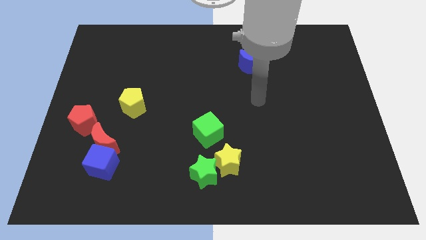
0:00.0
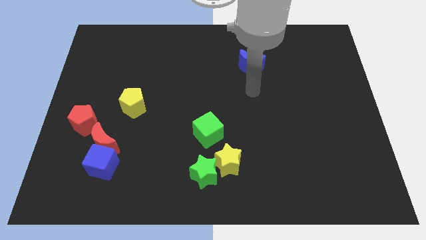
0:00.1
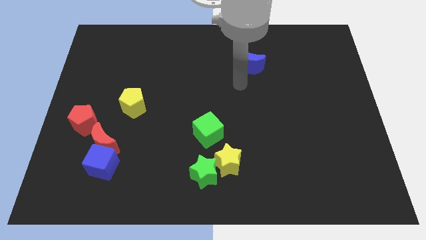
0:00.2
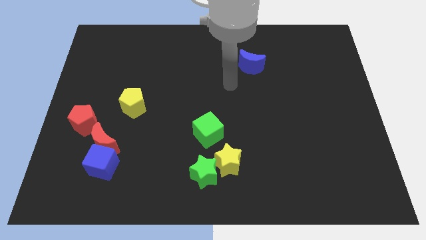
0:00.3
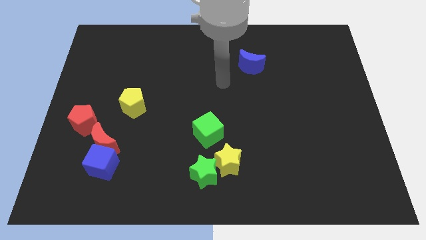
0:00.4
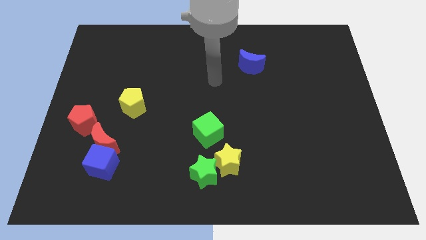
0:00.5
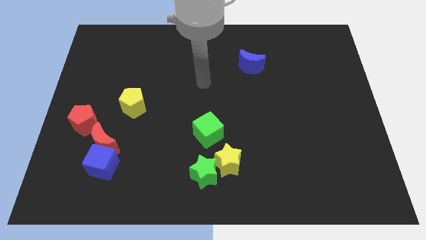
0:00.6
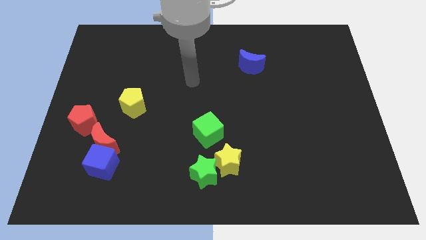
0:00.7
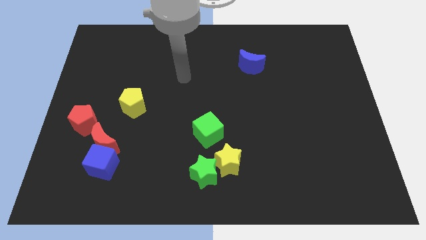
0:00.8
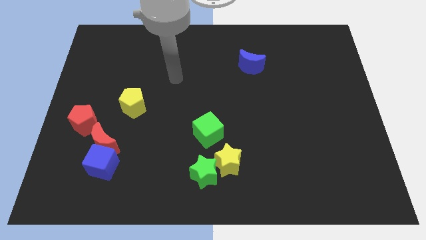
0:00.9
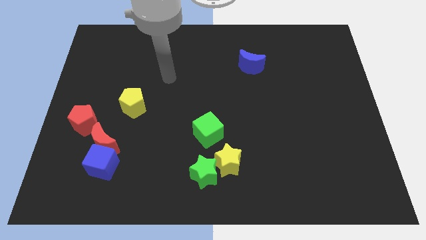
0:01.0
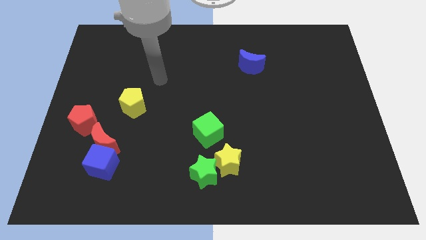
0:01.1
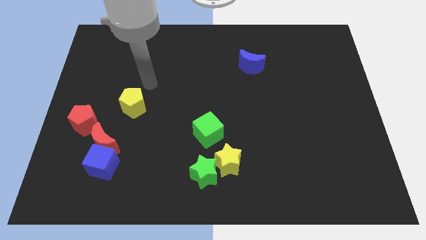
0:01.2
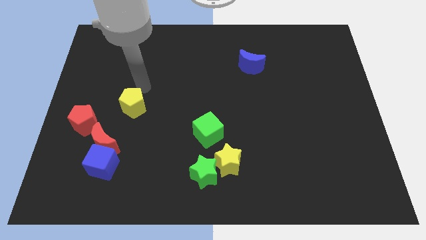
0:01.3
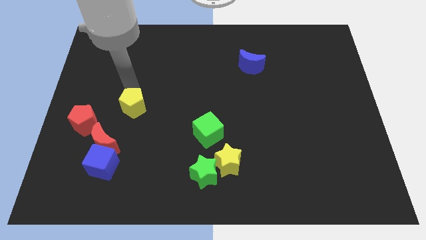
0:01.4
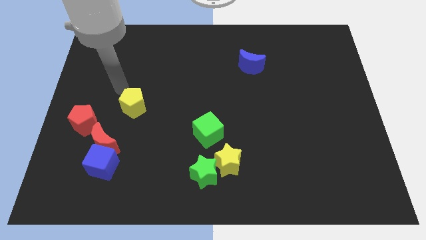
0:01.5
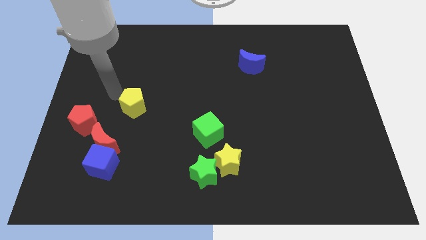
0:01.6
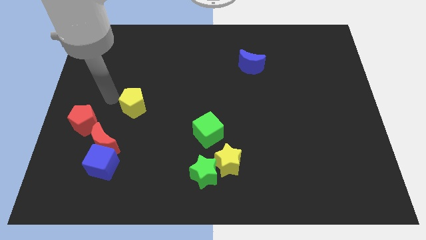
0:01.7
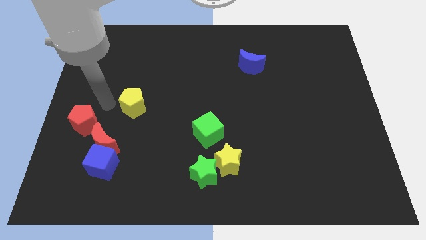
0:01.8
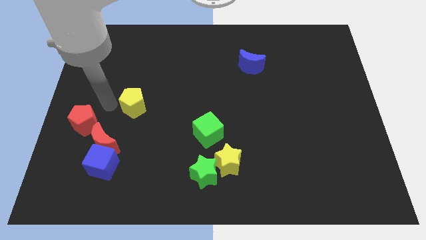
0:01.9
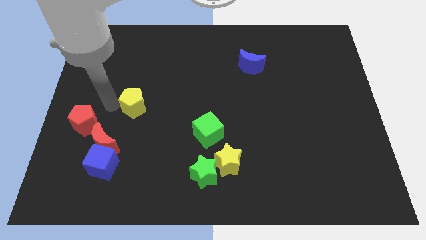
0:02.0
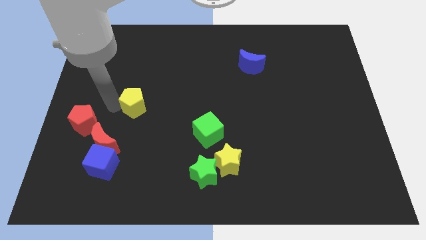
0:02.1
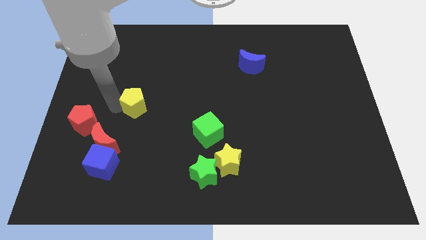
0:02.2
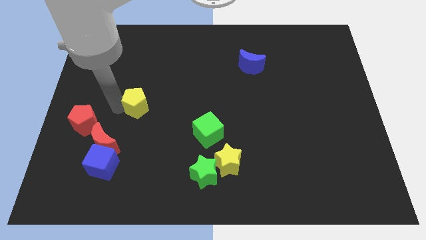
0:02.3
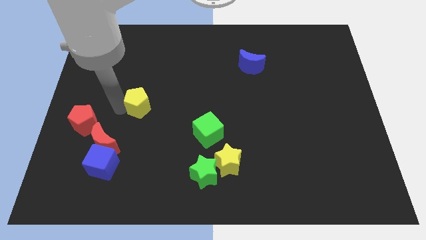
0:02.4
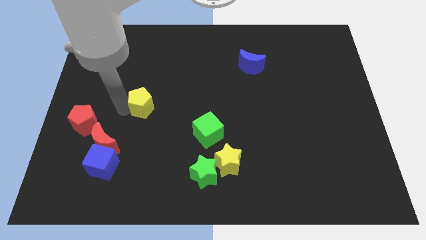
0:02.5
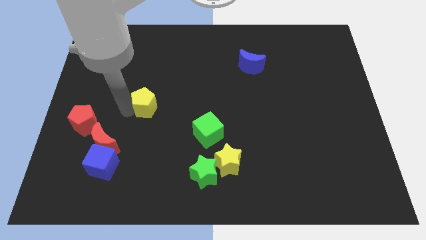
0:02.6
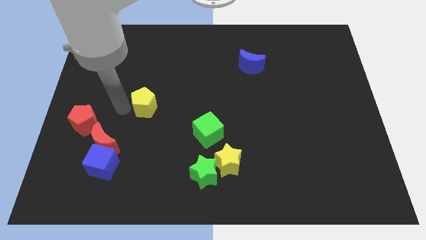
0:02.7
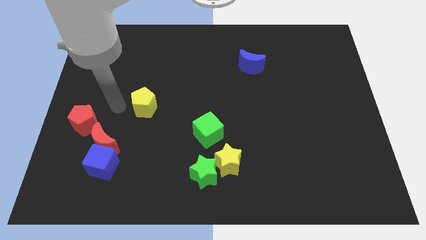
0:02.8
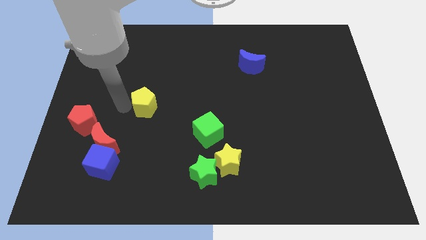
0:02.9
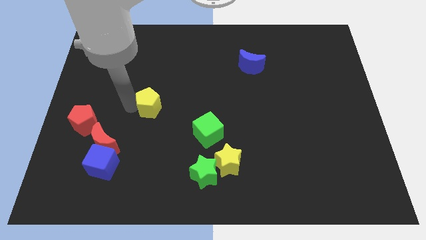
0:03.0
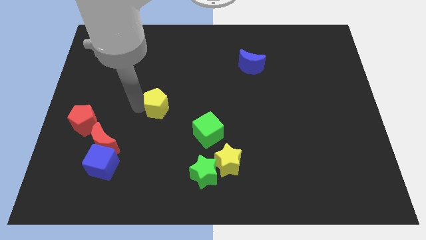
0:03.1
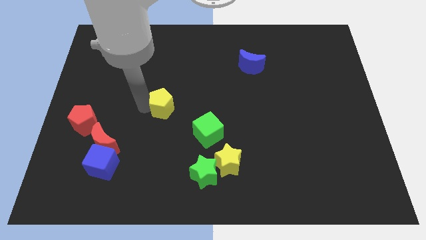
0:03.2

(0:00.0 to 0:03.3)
slide the yellow pentagon somewhat right

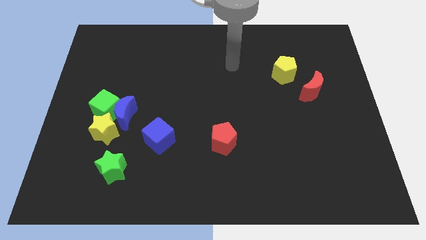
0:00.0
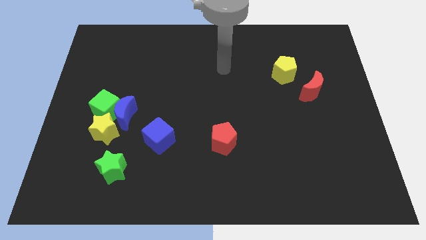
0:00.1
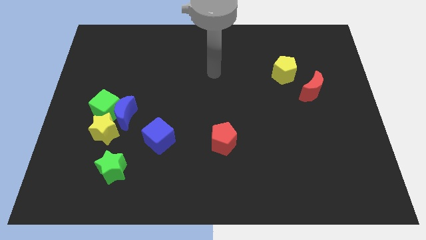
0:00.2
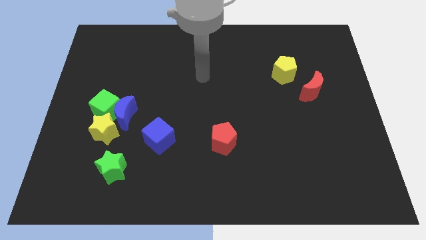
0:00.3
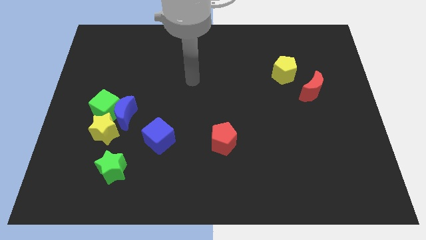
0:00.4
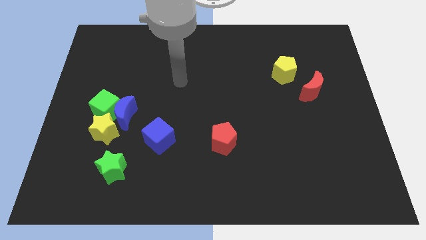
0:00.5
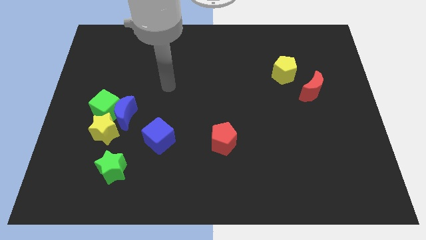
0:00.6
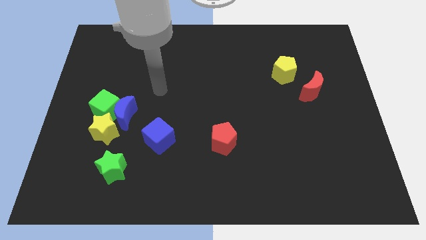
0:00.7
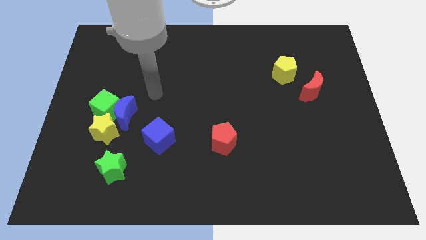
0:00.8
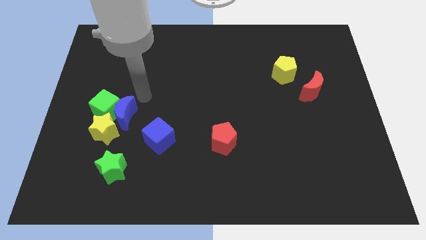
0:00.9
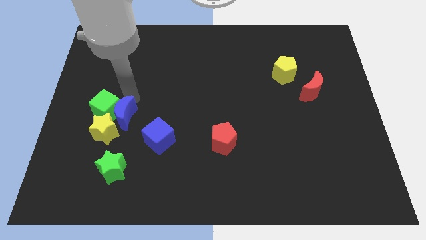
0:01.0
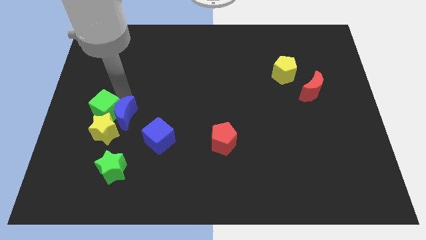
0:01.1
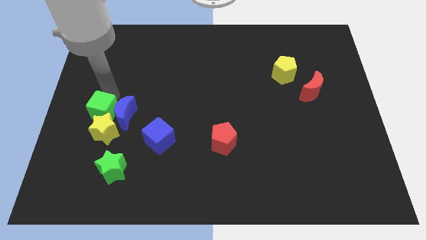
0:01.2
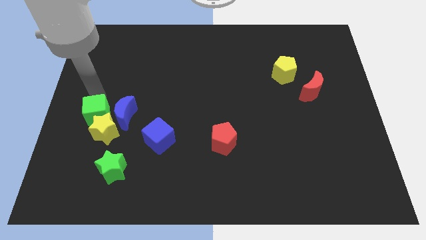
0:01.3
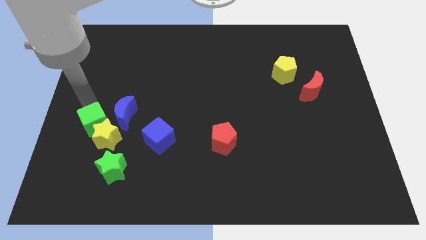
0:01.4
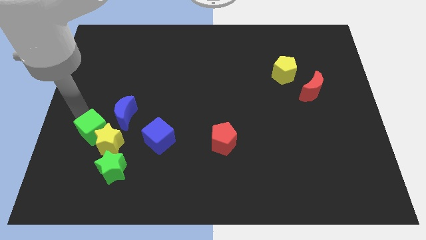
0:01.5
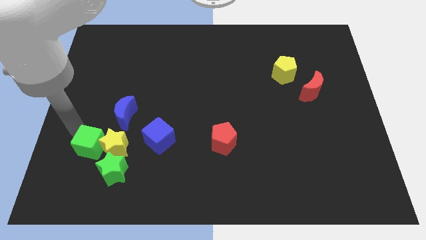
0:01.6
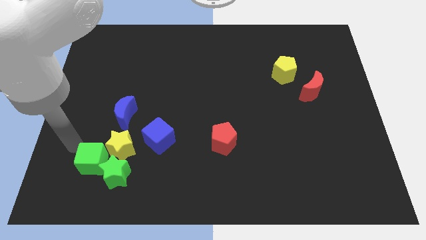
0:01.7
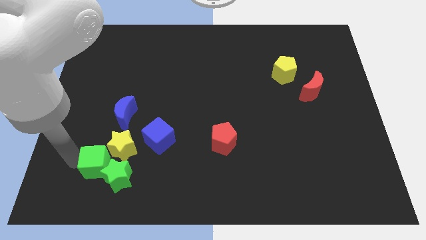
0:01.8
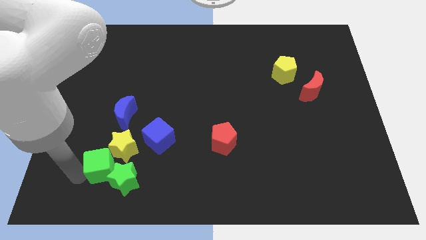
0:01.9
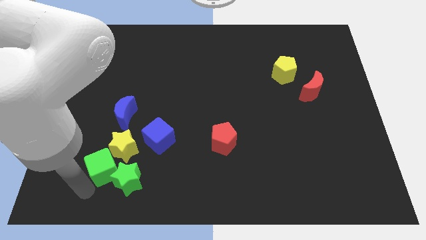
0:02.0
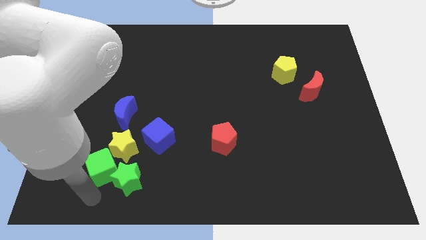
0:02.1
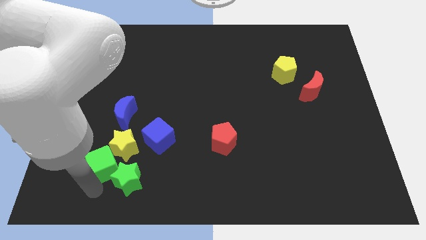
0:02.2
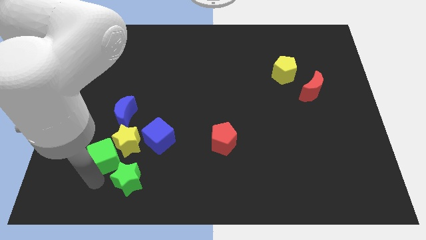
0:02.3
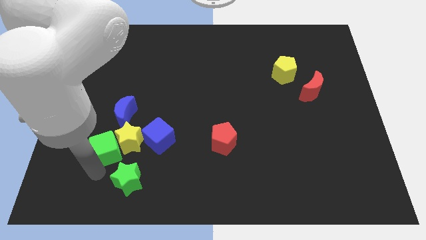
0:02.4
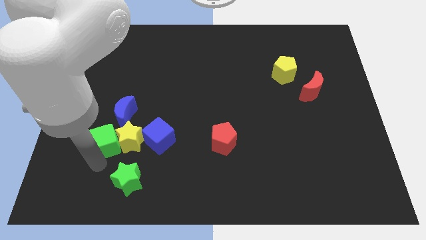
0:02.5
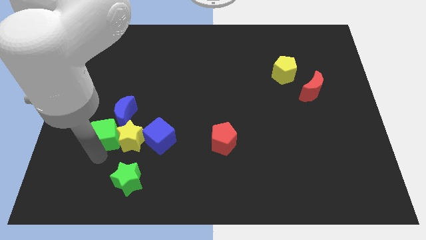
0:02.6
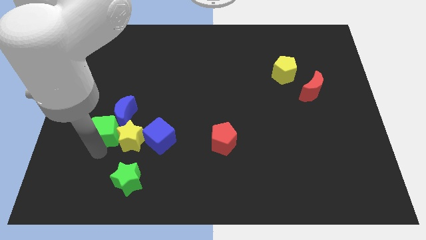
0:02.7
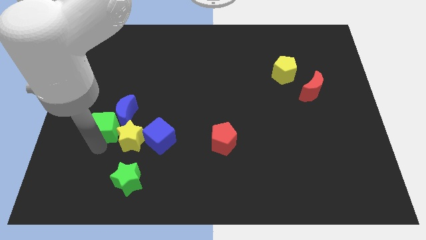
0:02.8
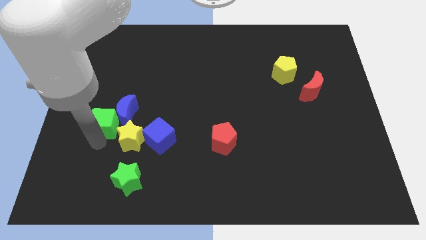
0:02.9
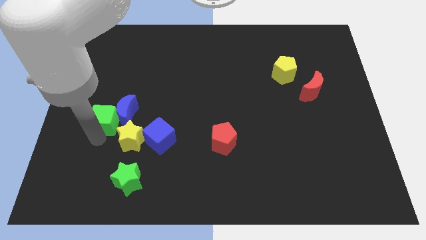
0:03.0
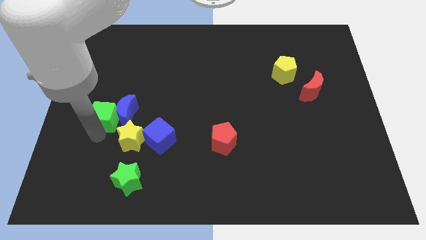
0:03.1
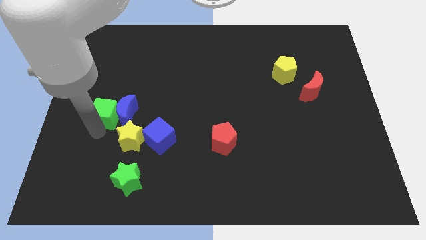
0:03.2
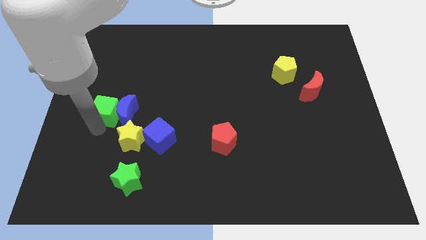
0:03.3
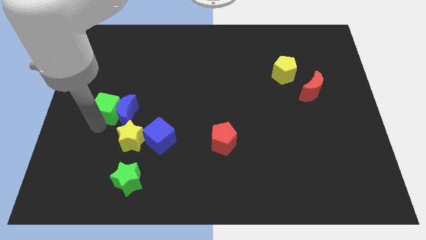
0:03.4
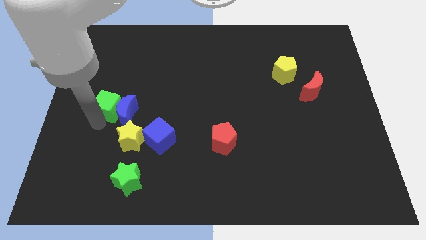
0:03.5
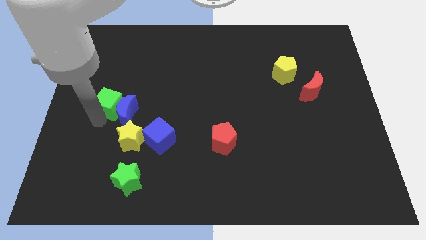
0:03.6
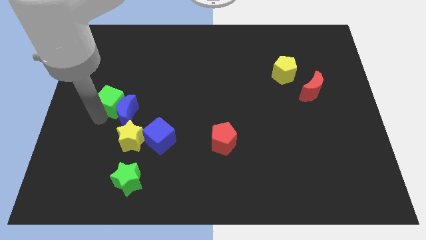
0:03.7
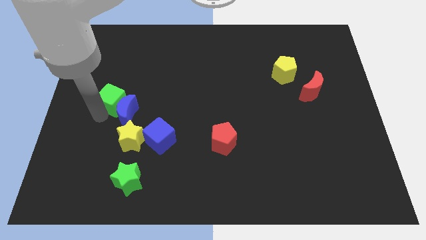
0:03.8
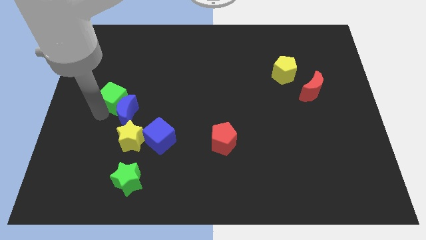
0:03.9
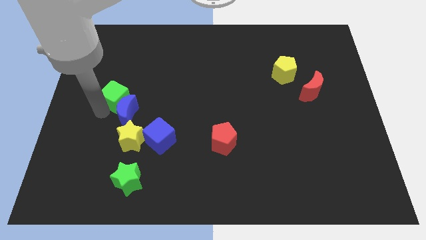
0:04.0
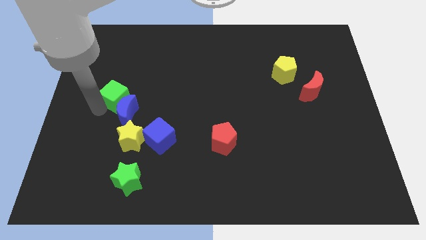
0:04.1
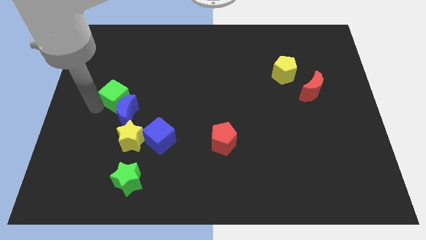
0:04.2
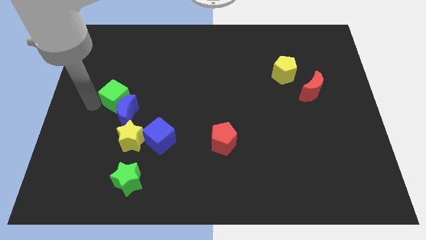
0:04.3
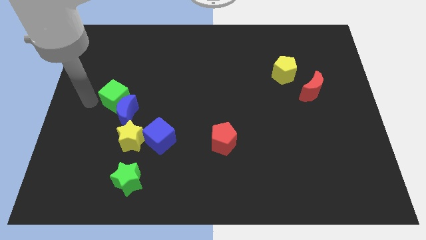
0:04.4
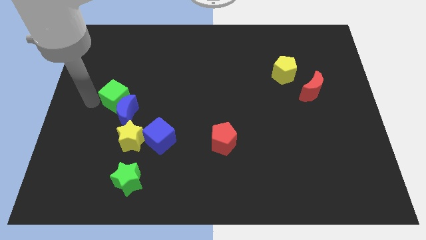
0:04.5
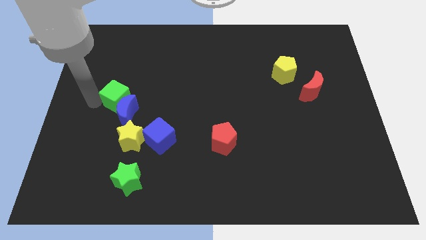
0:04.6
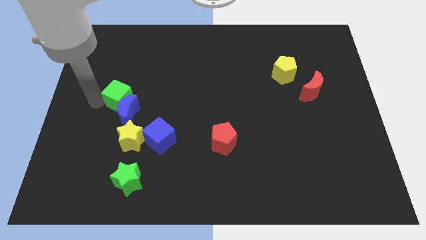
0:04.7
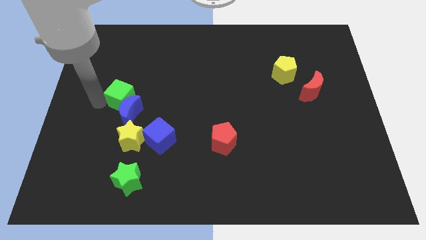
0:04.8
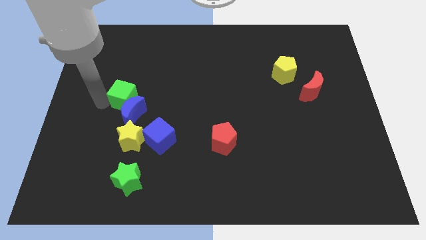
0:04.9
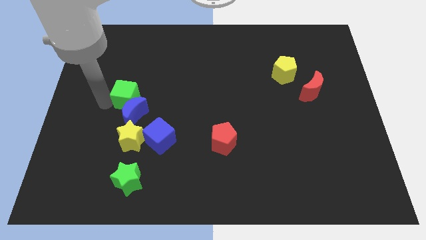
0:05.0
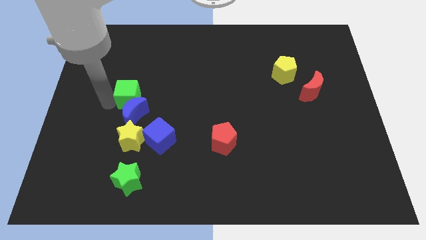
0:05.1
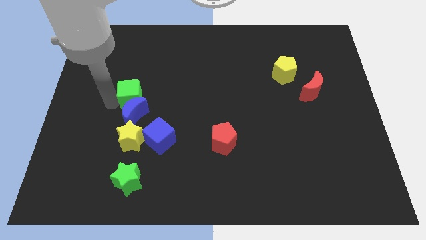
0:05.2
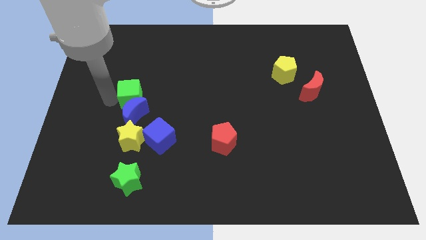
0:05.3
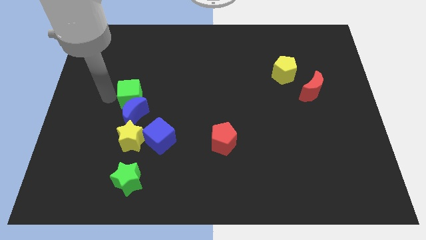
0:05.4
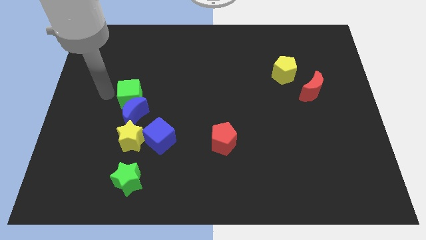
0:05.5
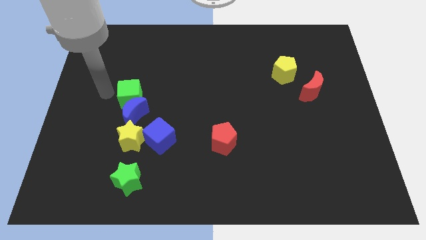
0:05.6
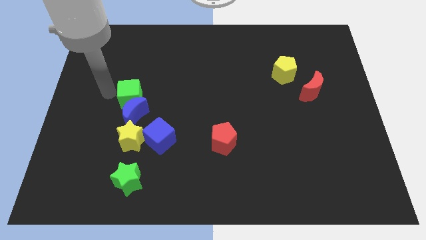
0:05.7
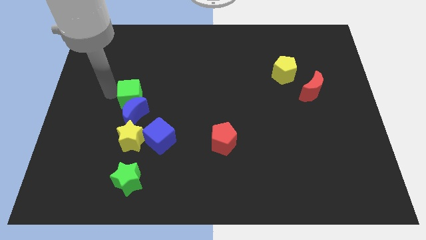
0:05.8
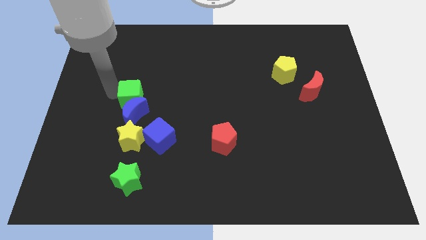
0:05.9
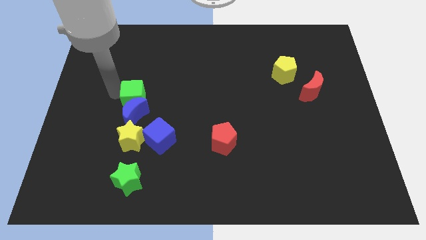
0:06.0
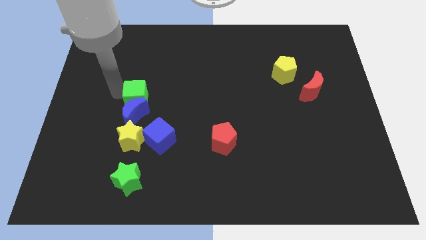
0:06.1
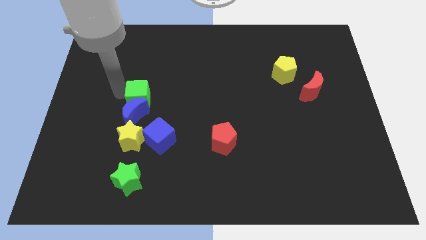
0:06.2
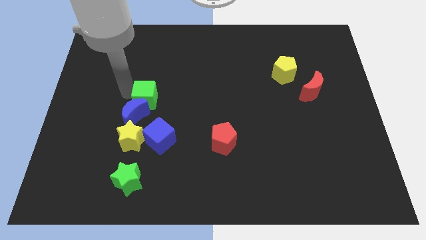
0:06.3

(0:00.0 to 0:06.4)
slightly slide the green cube right
